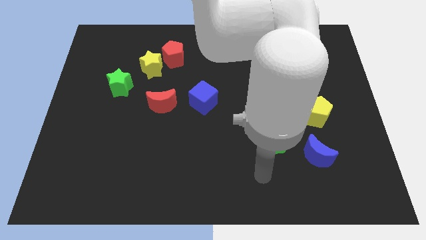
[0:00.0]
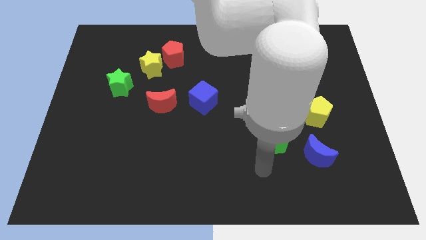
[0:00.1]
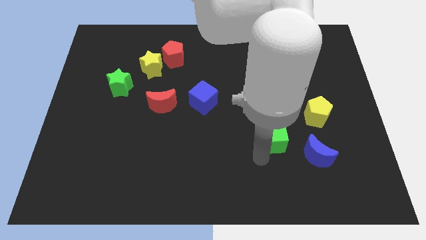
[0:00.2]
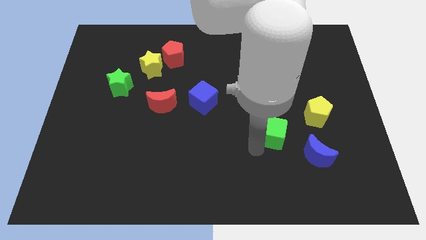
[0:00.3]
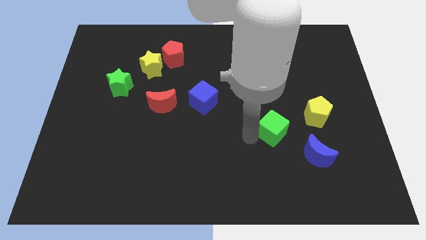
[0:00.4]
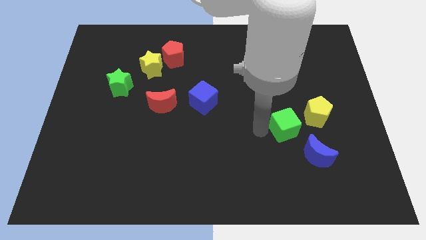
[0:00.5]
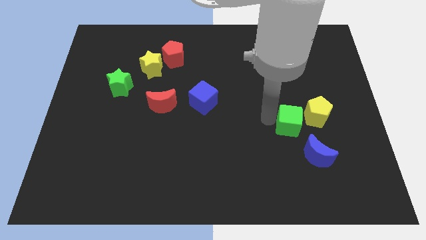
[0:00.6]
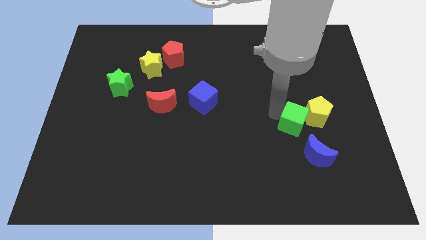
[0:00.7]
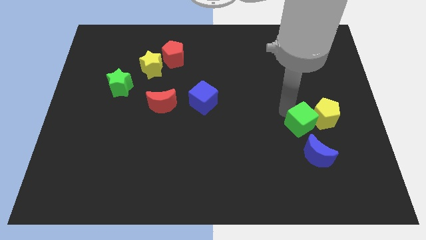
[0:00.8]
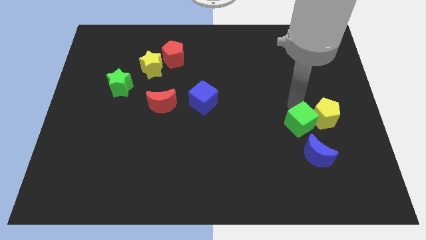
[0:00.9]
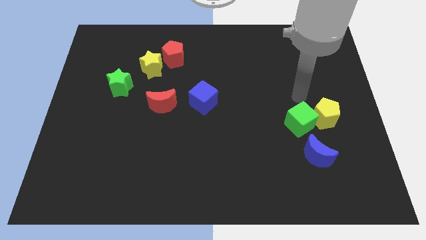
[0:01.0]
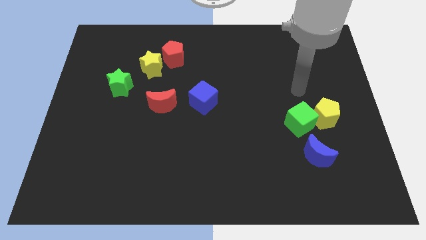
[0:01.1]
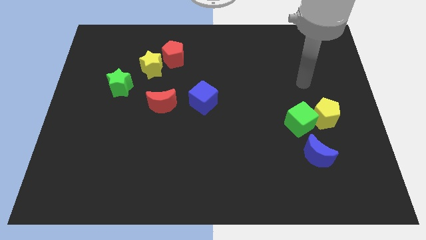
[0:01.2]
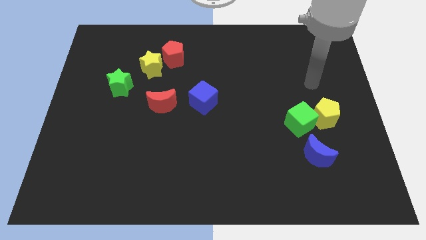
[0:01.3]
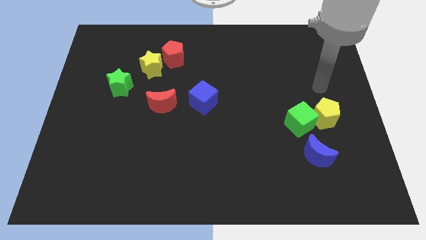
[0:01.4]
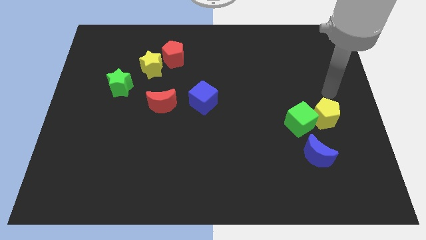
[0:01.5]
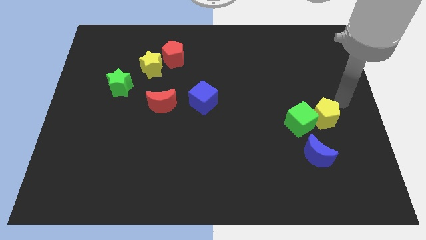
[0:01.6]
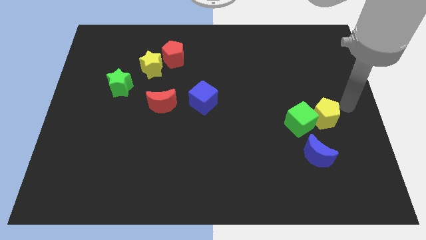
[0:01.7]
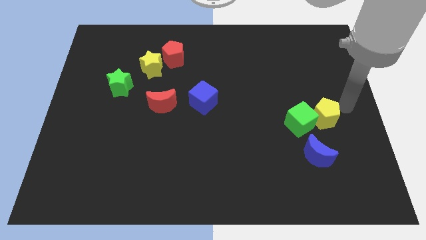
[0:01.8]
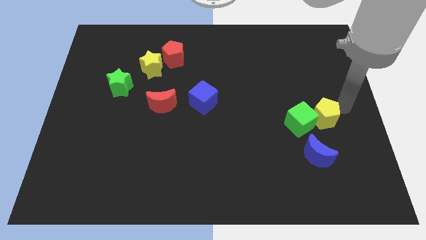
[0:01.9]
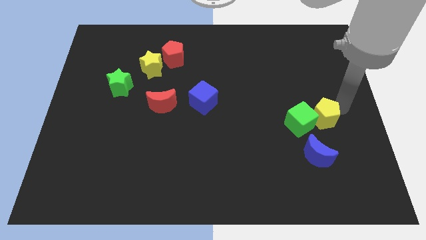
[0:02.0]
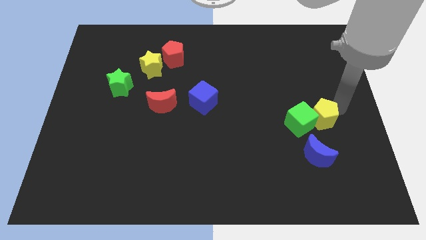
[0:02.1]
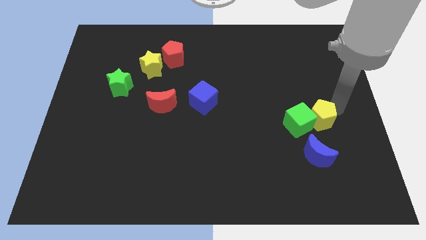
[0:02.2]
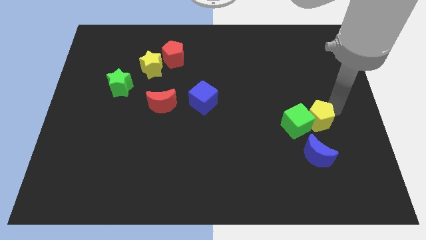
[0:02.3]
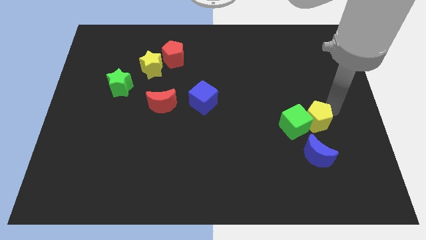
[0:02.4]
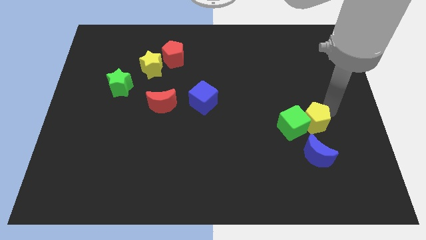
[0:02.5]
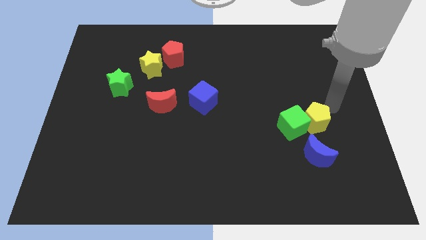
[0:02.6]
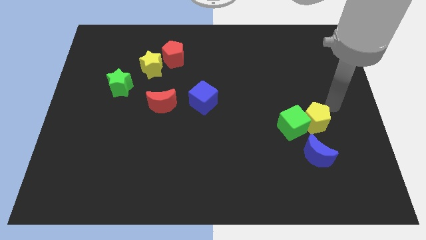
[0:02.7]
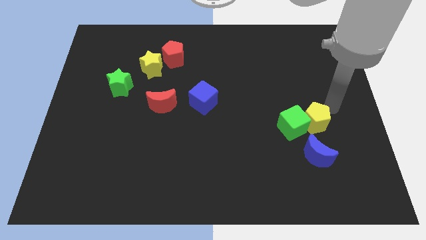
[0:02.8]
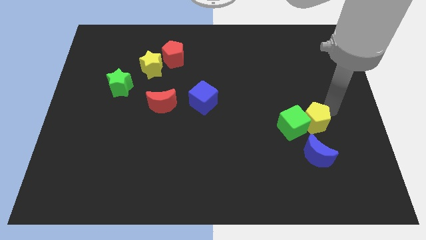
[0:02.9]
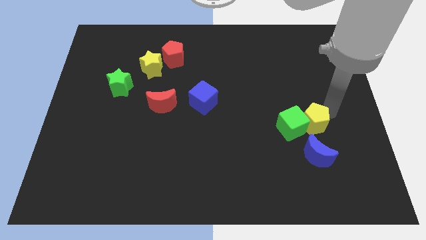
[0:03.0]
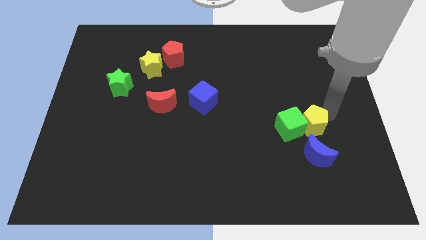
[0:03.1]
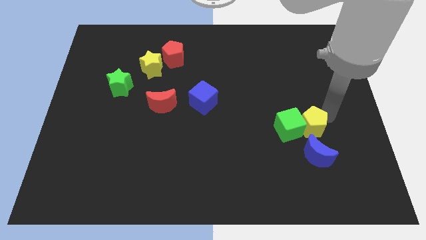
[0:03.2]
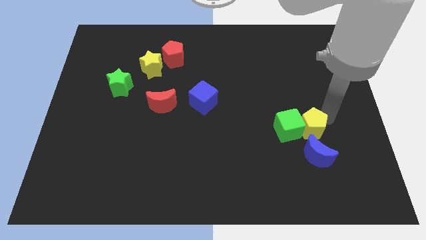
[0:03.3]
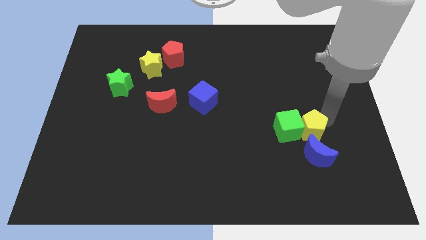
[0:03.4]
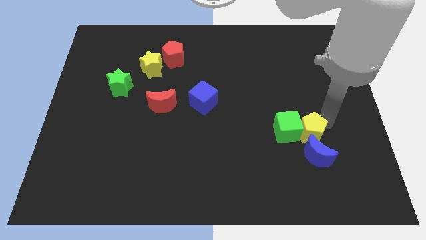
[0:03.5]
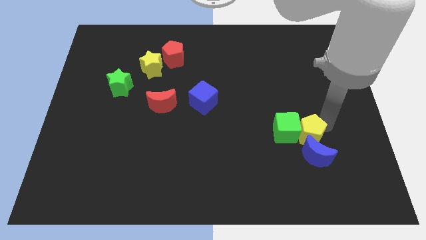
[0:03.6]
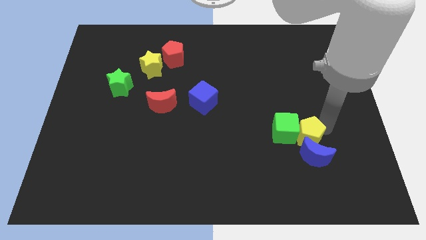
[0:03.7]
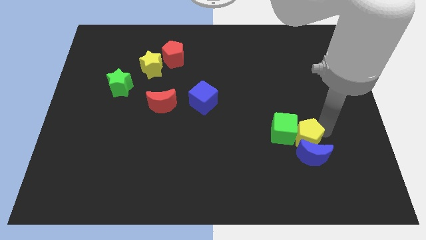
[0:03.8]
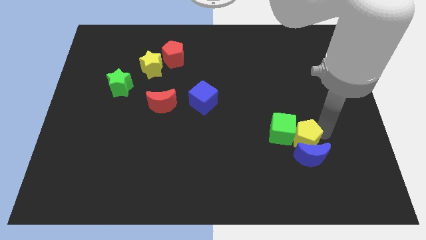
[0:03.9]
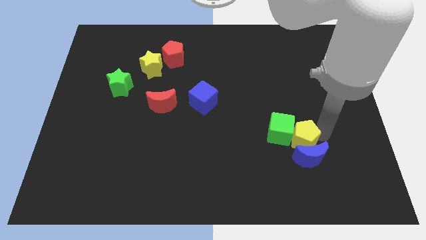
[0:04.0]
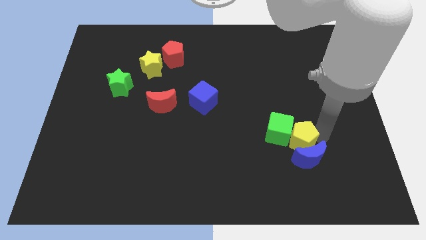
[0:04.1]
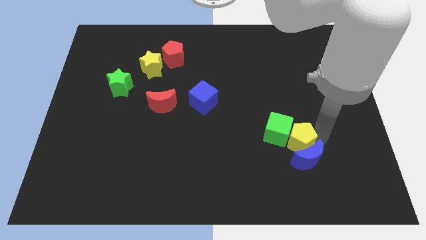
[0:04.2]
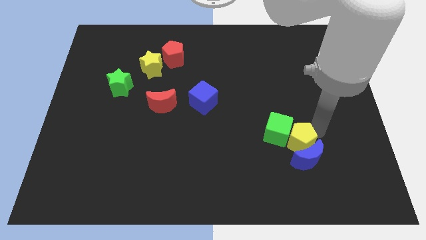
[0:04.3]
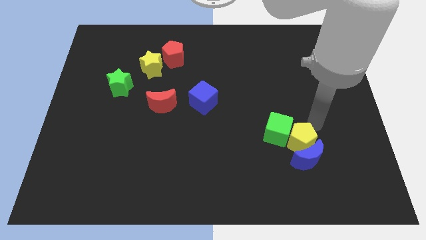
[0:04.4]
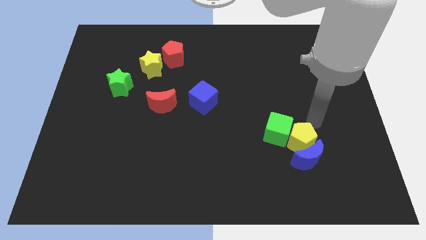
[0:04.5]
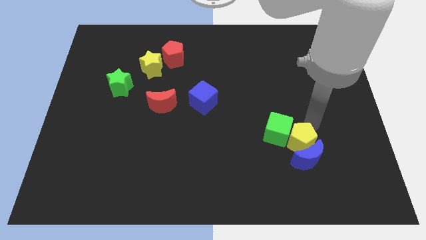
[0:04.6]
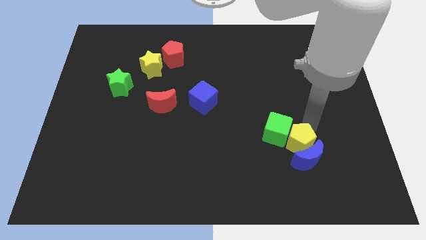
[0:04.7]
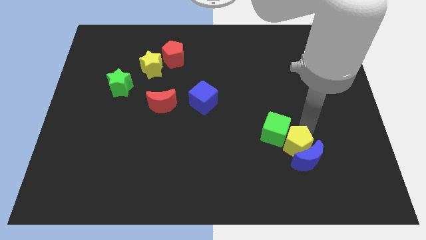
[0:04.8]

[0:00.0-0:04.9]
slide the yellow pentagon to the bottom side of the green cube

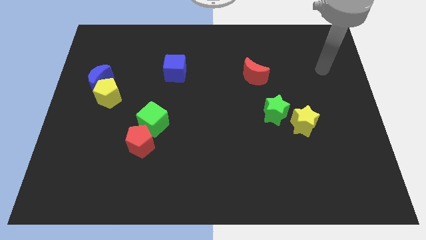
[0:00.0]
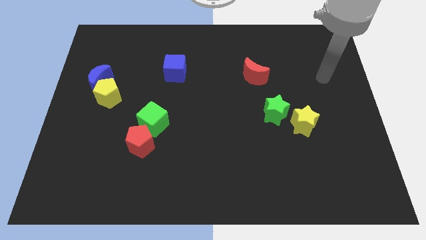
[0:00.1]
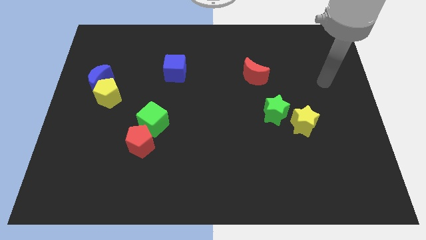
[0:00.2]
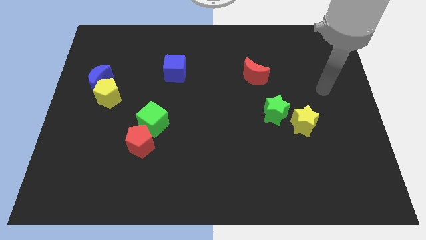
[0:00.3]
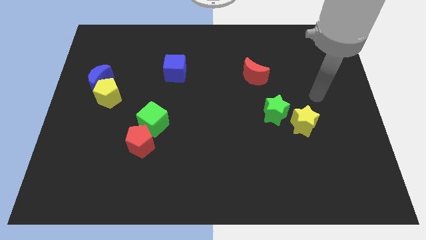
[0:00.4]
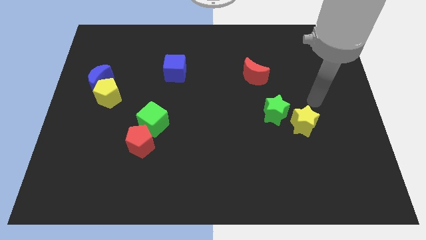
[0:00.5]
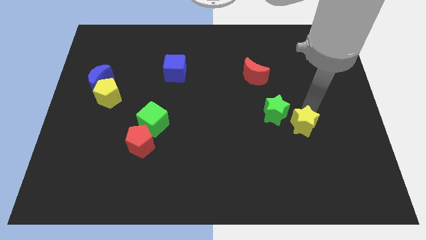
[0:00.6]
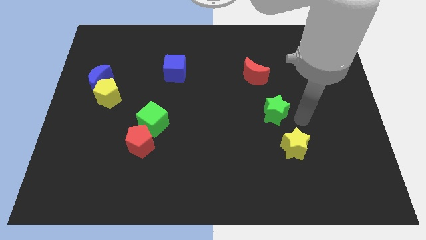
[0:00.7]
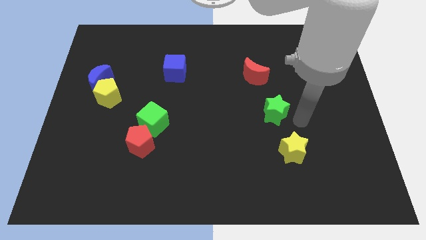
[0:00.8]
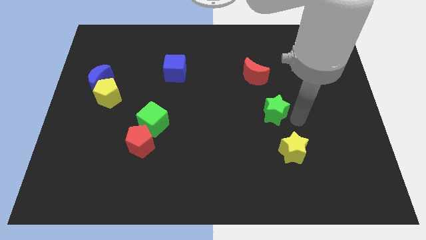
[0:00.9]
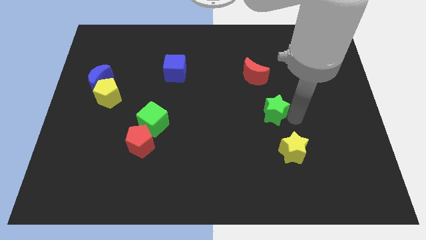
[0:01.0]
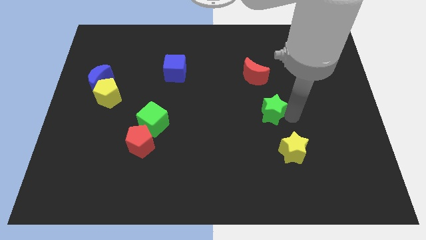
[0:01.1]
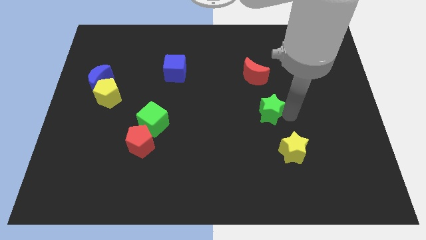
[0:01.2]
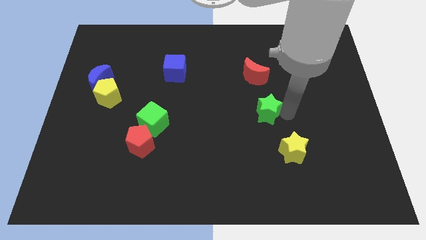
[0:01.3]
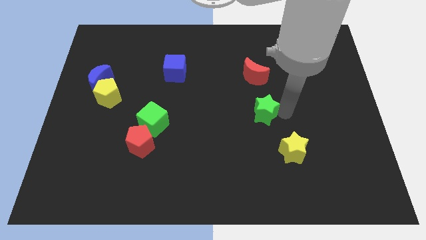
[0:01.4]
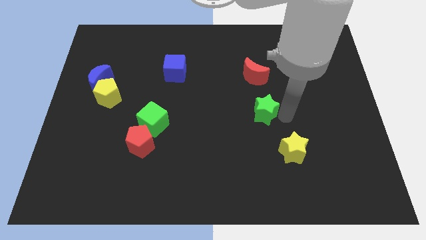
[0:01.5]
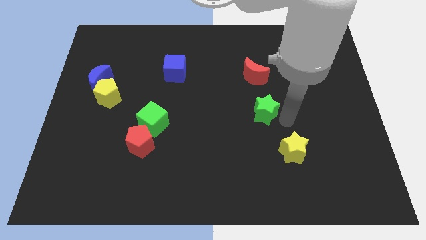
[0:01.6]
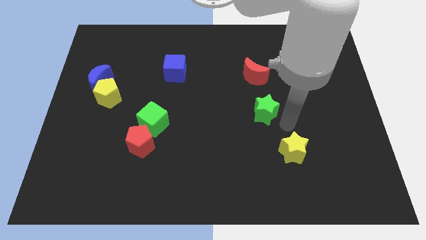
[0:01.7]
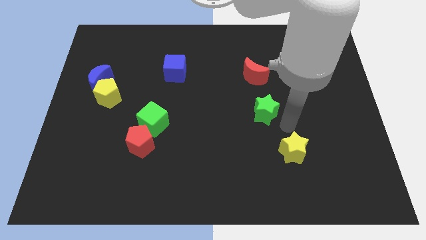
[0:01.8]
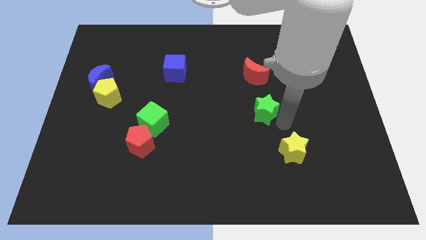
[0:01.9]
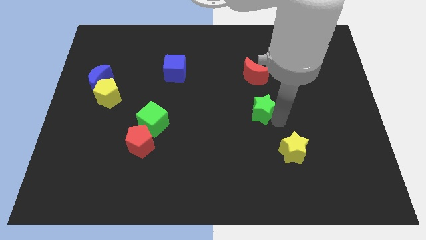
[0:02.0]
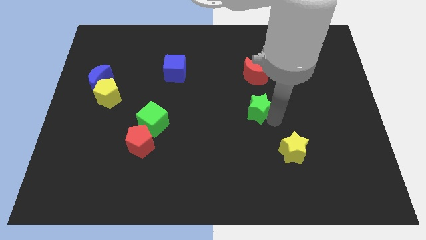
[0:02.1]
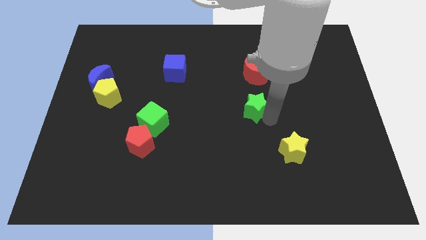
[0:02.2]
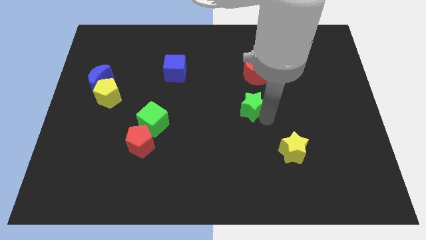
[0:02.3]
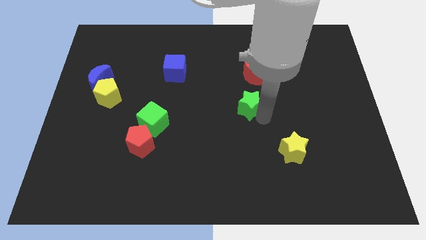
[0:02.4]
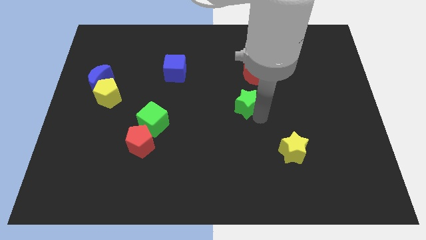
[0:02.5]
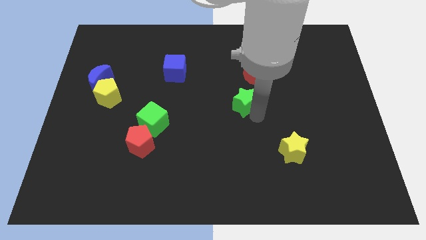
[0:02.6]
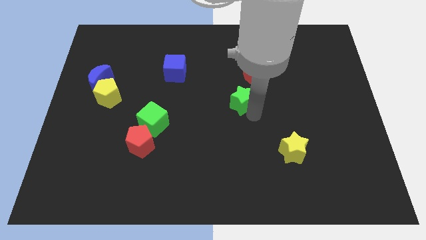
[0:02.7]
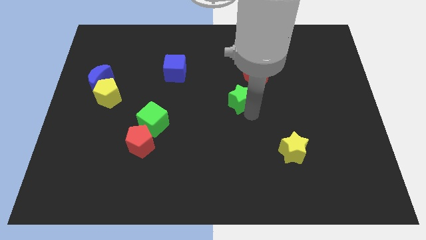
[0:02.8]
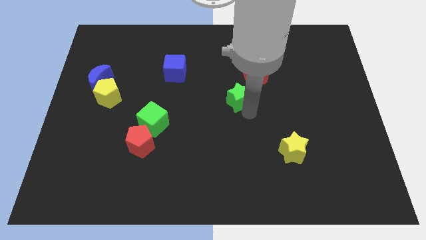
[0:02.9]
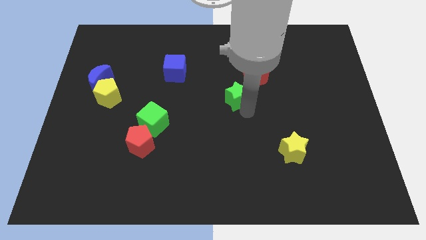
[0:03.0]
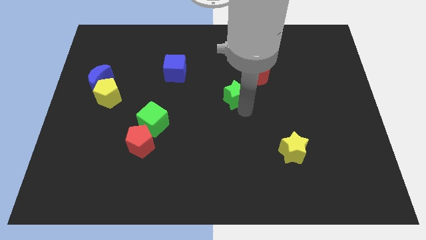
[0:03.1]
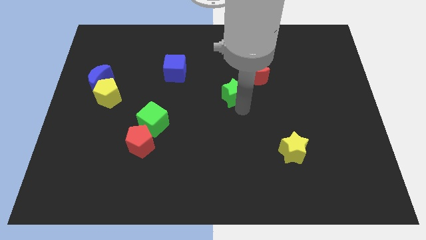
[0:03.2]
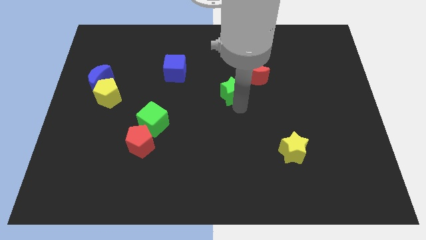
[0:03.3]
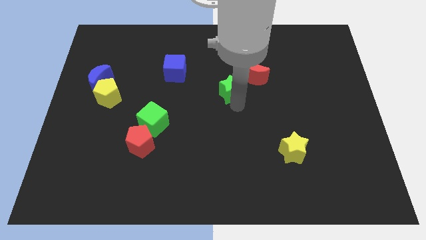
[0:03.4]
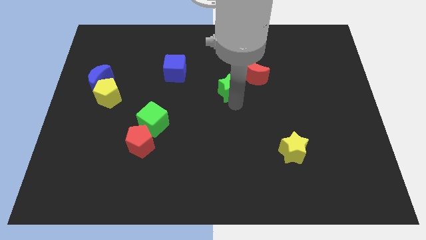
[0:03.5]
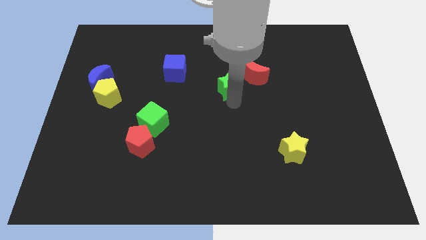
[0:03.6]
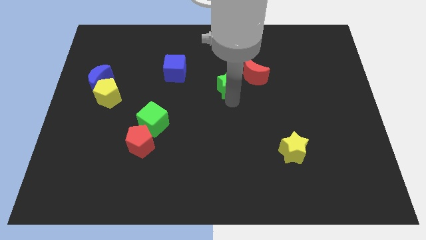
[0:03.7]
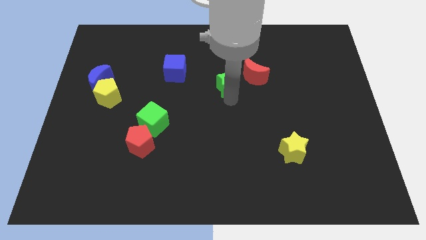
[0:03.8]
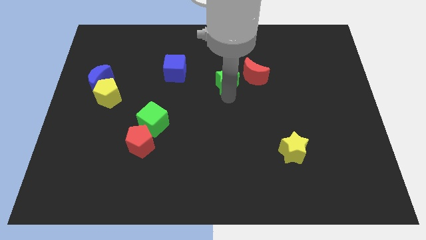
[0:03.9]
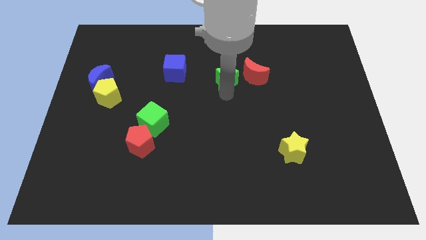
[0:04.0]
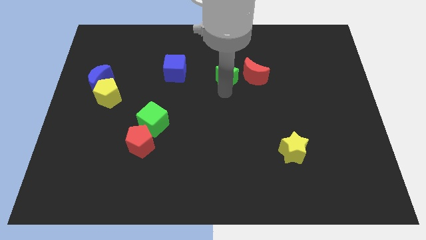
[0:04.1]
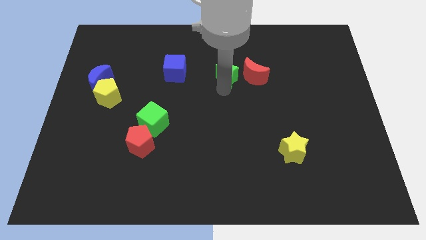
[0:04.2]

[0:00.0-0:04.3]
slide the green star diagonally up and to the left of the red moon
